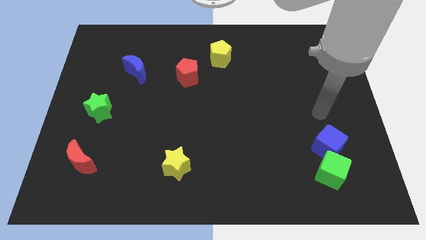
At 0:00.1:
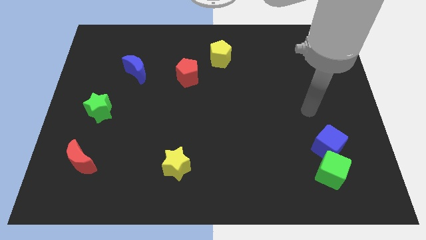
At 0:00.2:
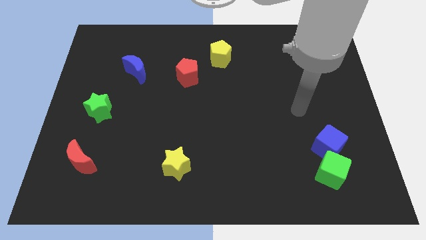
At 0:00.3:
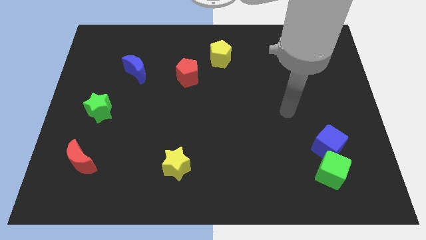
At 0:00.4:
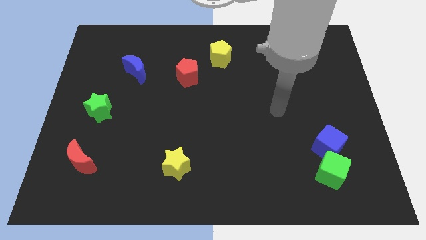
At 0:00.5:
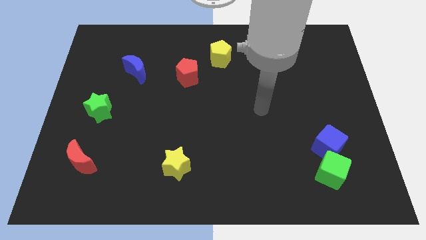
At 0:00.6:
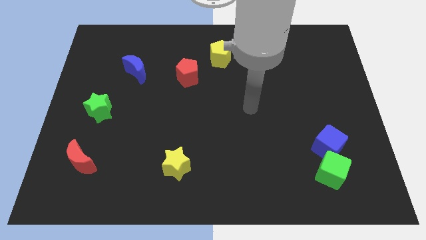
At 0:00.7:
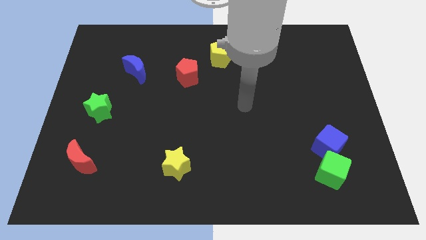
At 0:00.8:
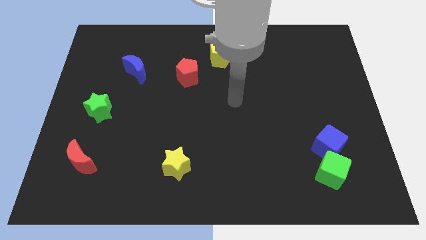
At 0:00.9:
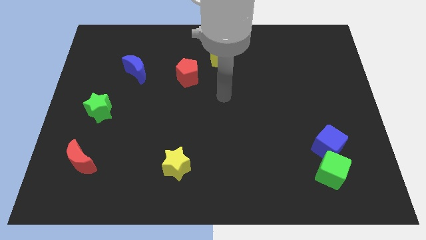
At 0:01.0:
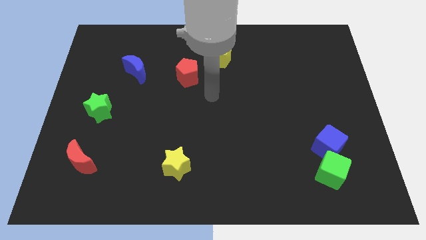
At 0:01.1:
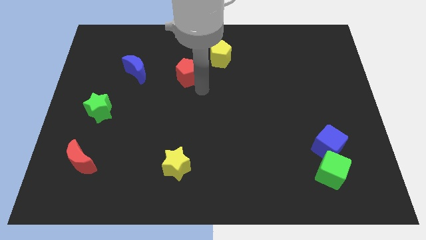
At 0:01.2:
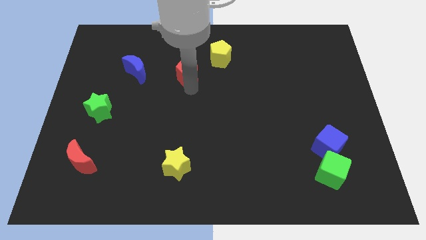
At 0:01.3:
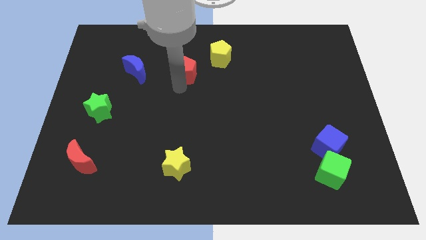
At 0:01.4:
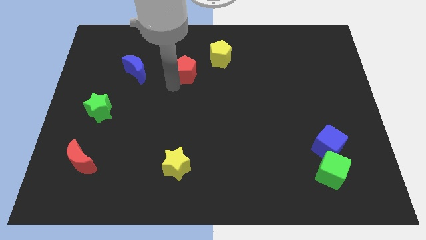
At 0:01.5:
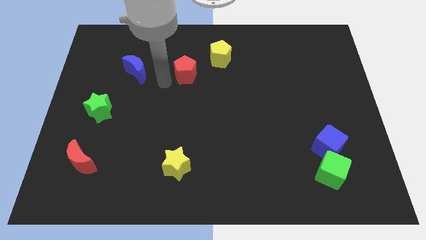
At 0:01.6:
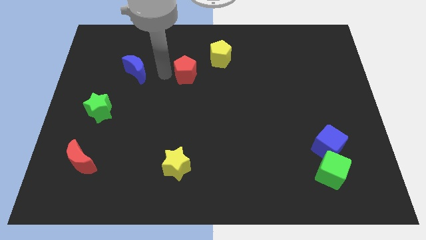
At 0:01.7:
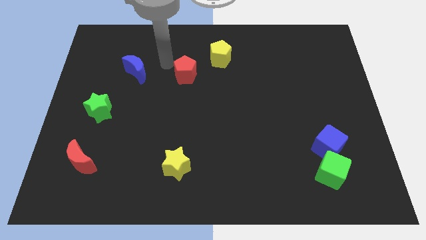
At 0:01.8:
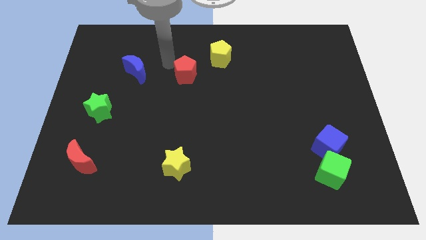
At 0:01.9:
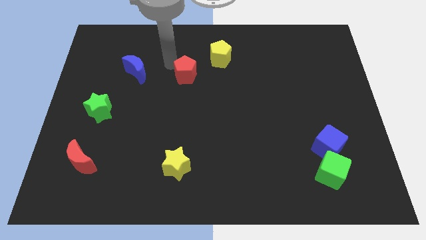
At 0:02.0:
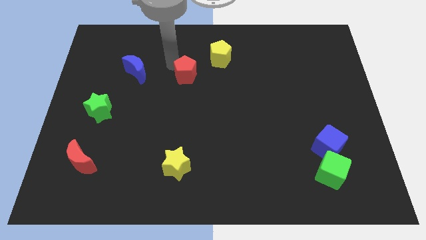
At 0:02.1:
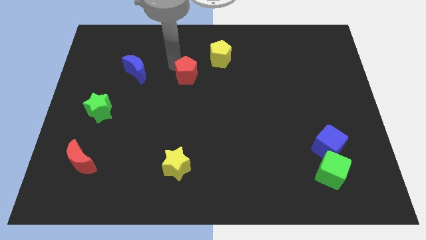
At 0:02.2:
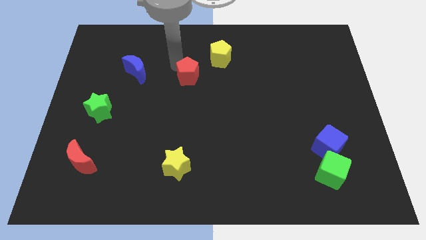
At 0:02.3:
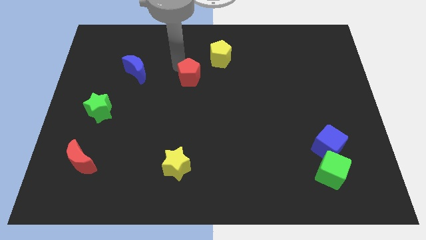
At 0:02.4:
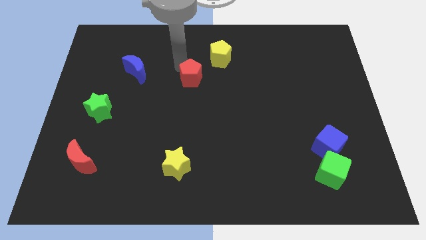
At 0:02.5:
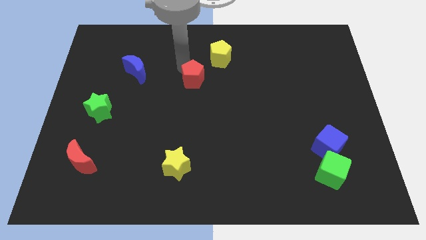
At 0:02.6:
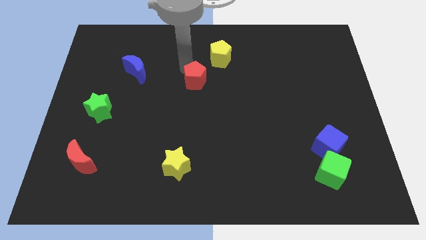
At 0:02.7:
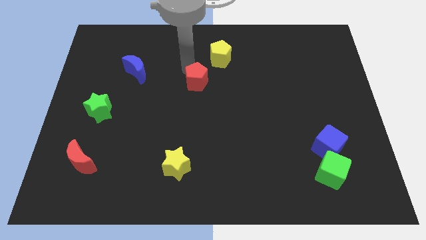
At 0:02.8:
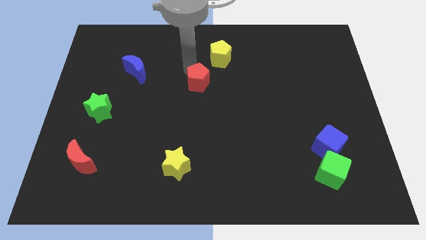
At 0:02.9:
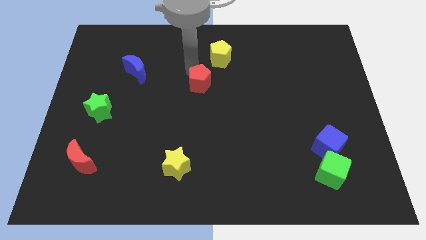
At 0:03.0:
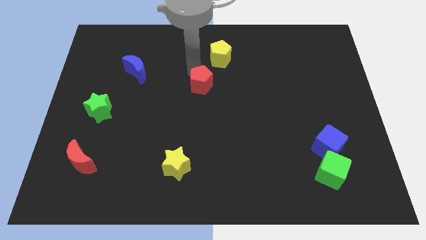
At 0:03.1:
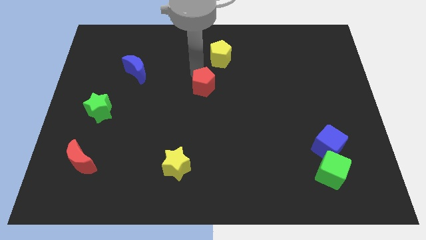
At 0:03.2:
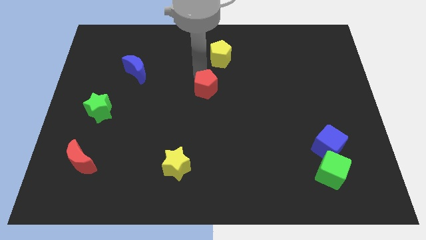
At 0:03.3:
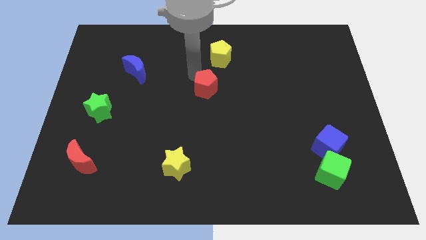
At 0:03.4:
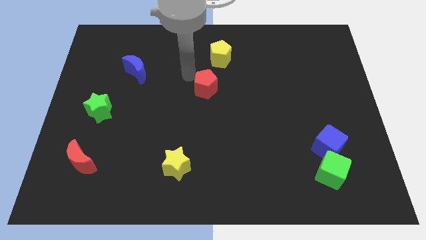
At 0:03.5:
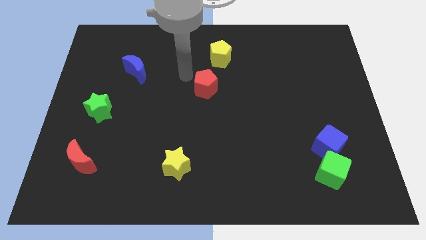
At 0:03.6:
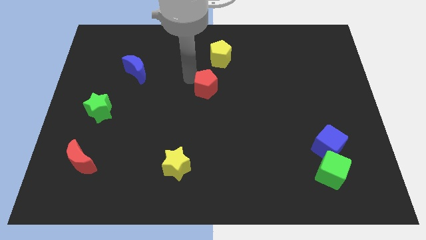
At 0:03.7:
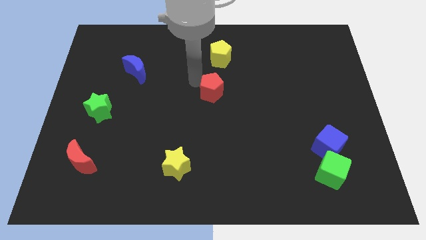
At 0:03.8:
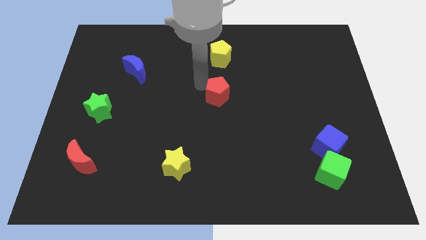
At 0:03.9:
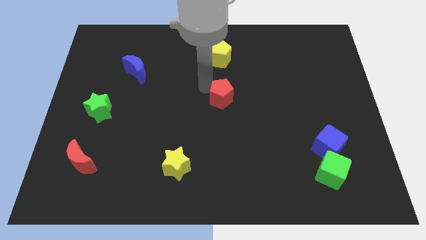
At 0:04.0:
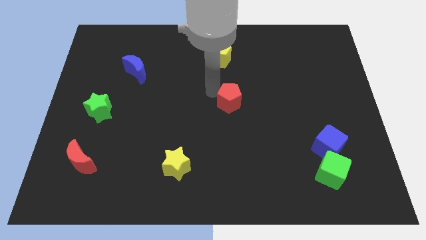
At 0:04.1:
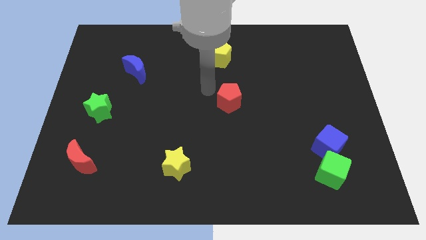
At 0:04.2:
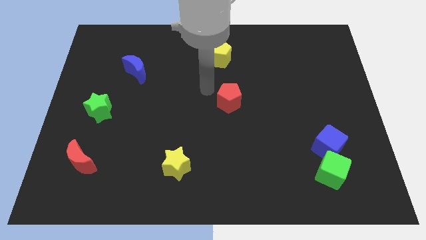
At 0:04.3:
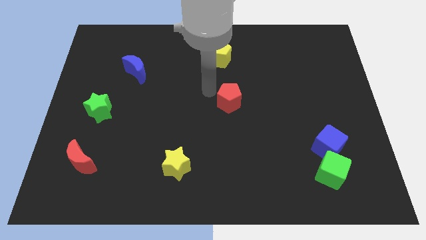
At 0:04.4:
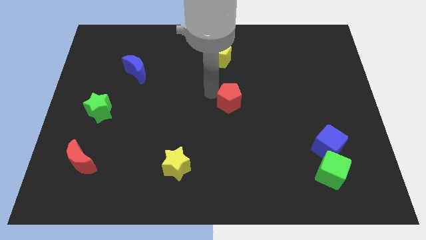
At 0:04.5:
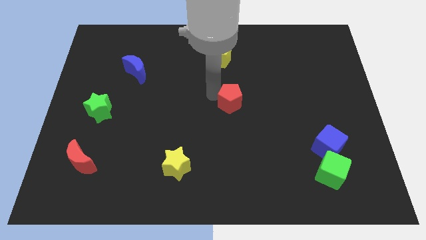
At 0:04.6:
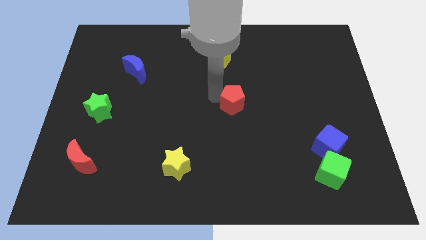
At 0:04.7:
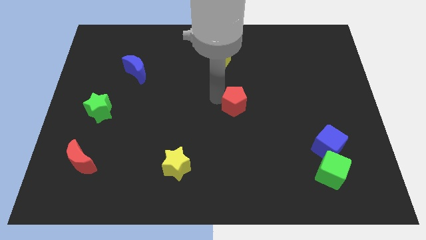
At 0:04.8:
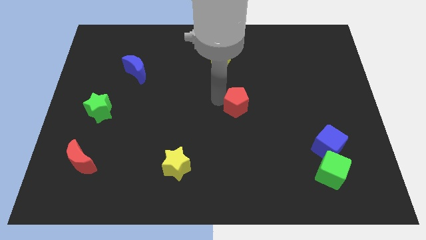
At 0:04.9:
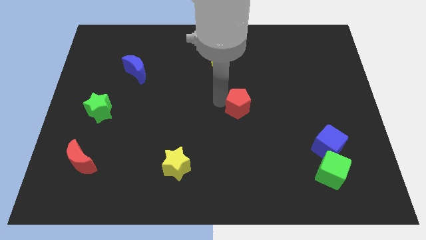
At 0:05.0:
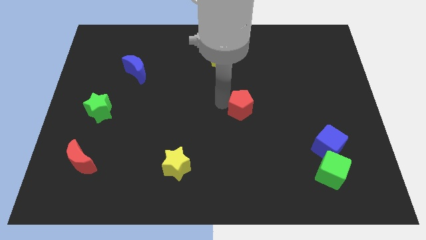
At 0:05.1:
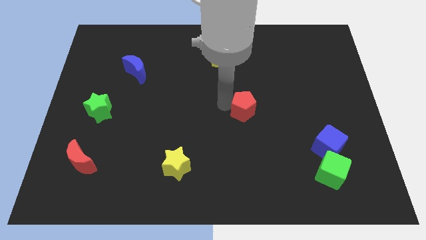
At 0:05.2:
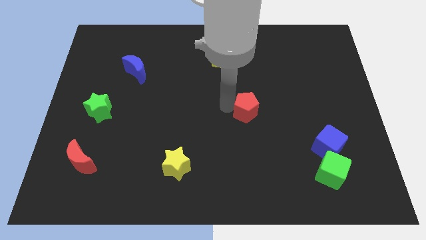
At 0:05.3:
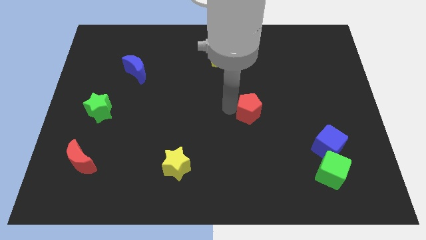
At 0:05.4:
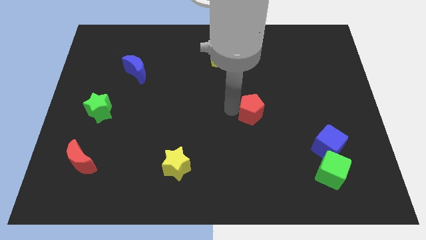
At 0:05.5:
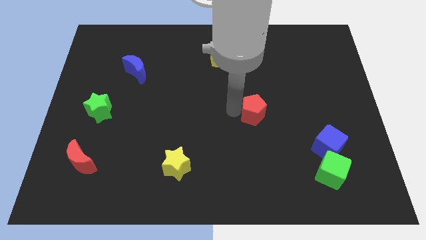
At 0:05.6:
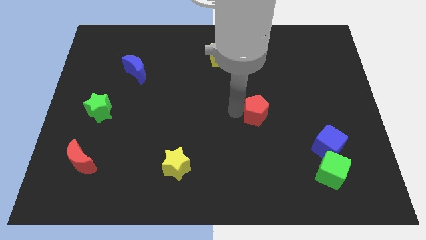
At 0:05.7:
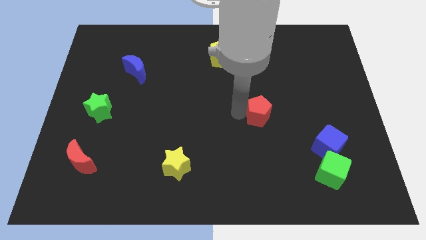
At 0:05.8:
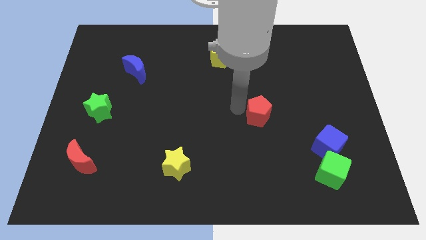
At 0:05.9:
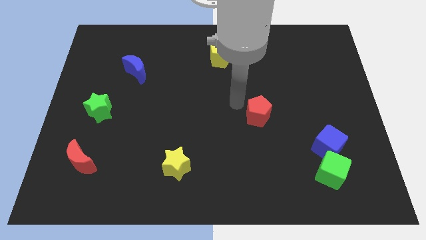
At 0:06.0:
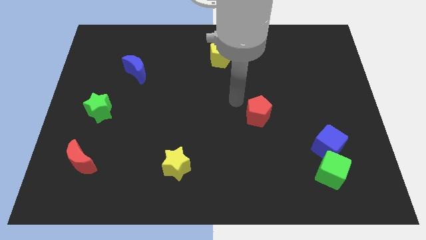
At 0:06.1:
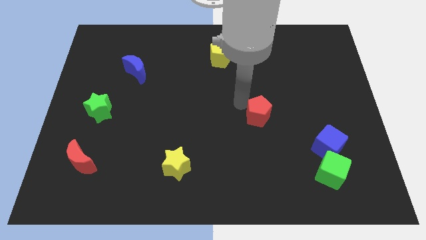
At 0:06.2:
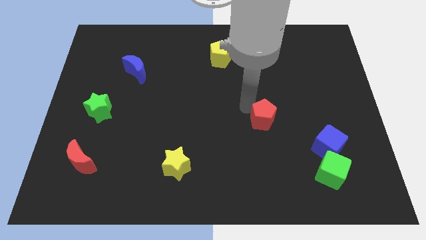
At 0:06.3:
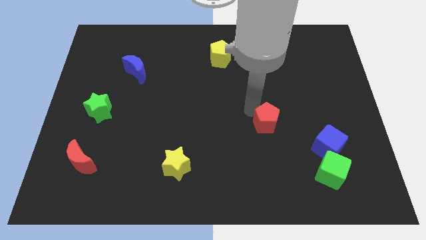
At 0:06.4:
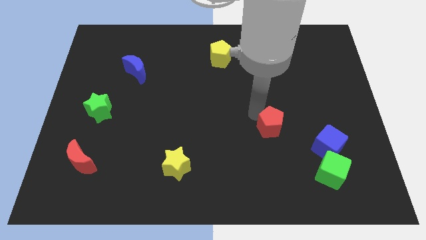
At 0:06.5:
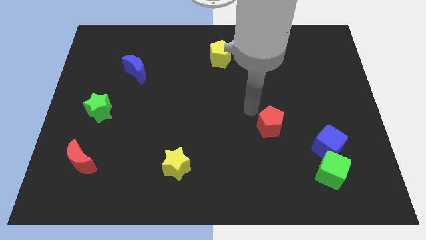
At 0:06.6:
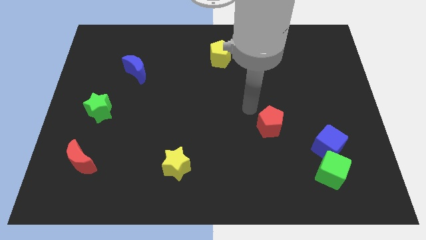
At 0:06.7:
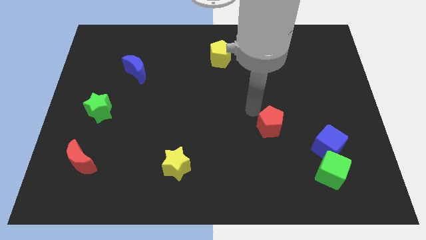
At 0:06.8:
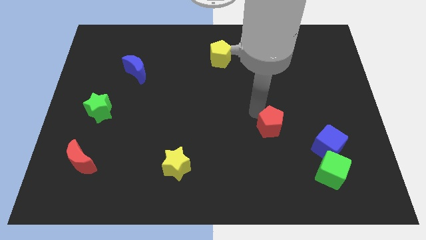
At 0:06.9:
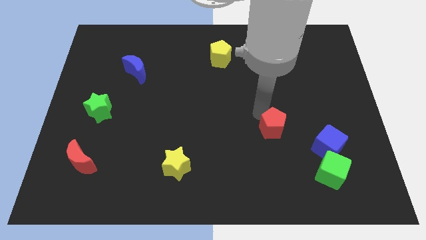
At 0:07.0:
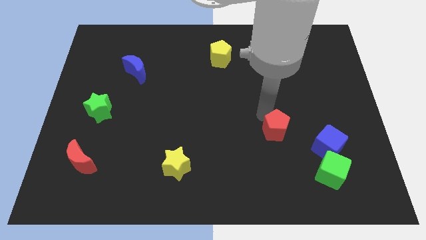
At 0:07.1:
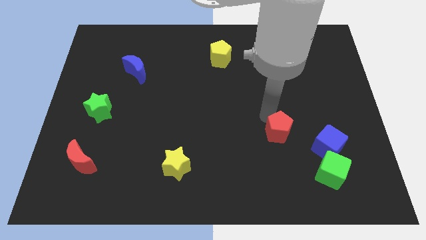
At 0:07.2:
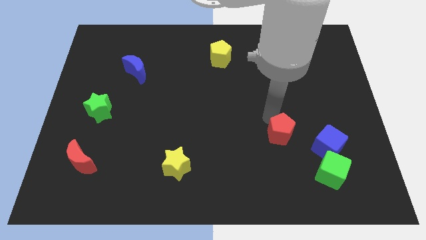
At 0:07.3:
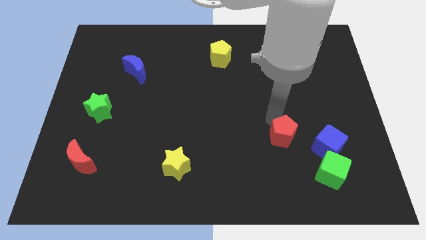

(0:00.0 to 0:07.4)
put the red pentagon to the top left of the green cube

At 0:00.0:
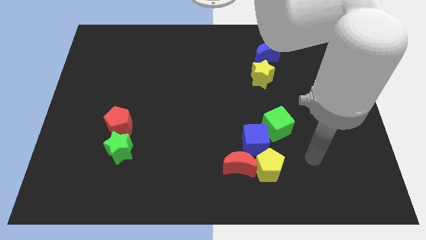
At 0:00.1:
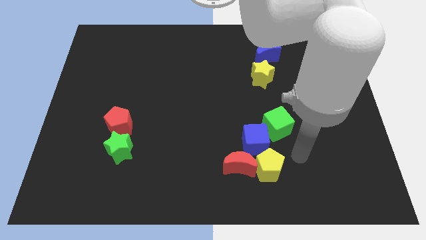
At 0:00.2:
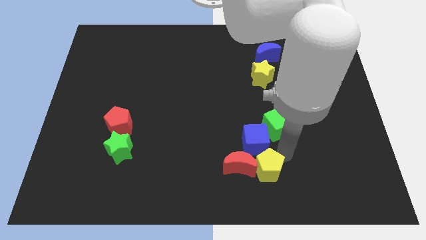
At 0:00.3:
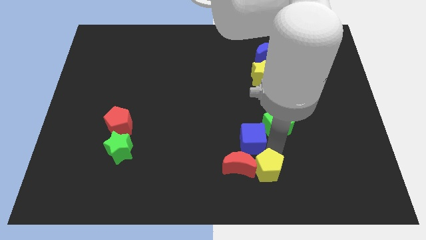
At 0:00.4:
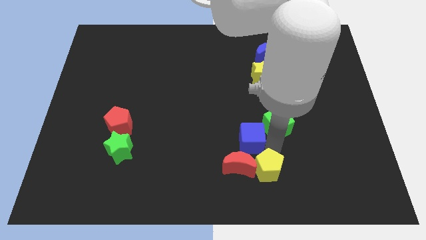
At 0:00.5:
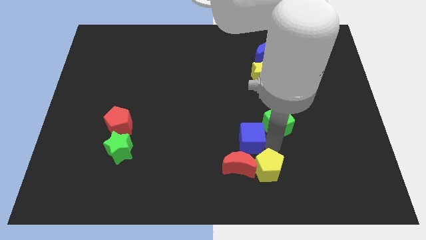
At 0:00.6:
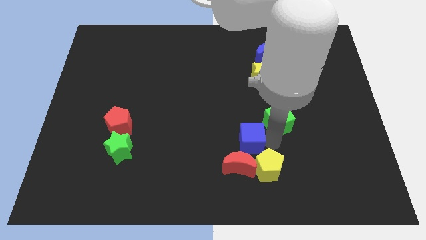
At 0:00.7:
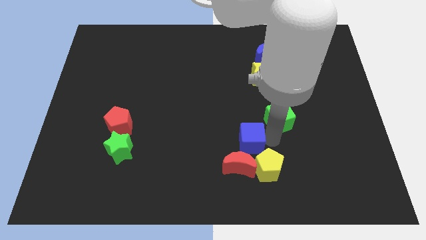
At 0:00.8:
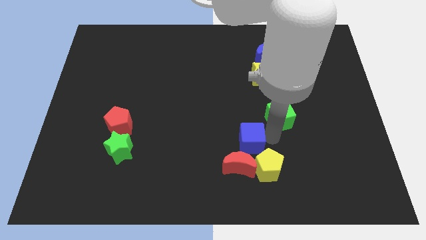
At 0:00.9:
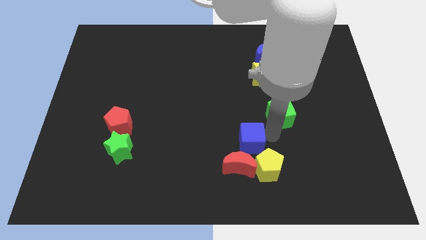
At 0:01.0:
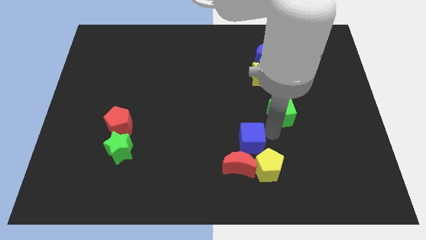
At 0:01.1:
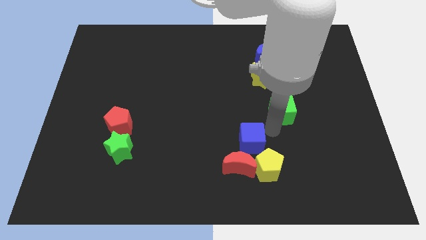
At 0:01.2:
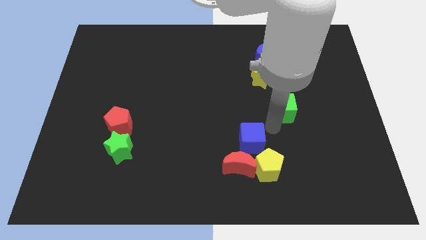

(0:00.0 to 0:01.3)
slide the green cube diagonally down and to the right of the yellow star
